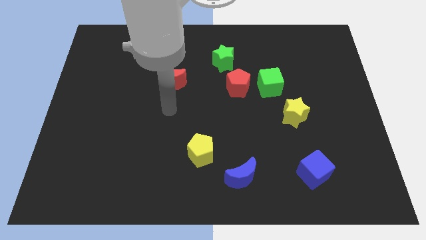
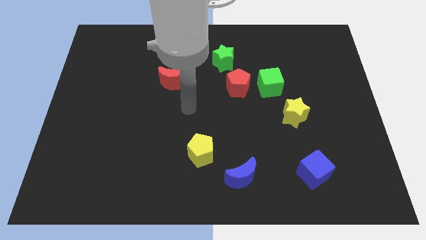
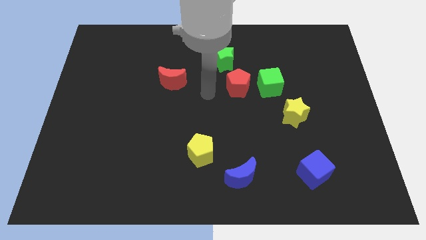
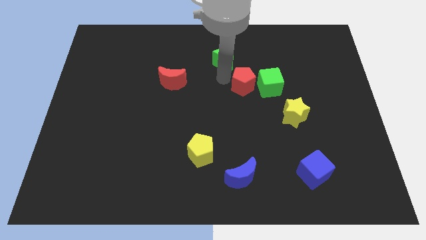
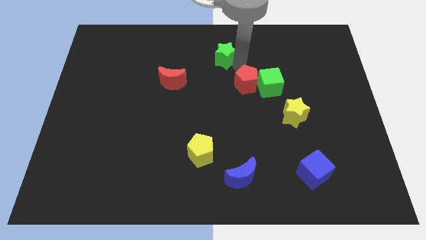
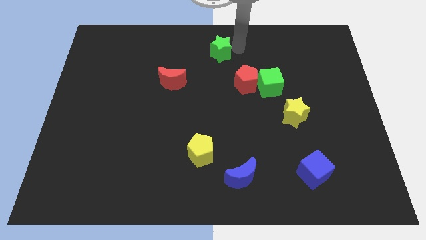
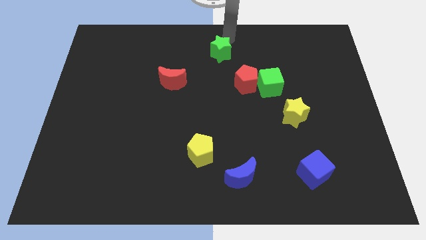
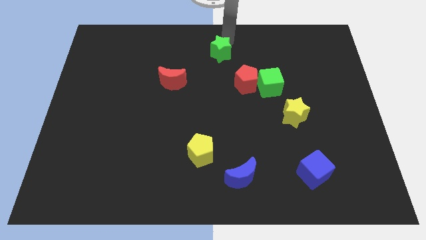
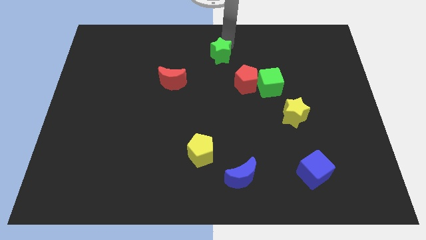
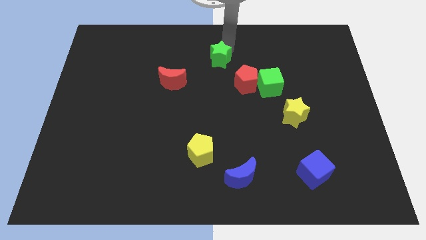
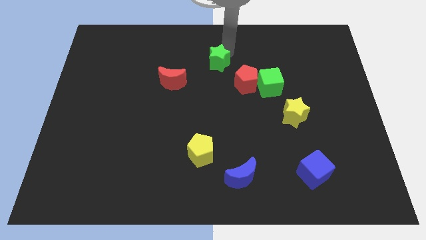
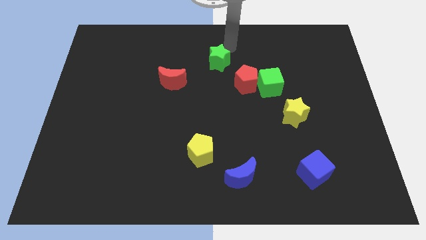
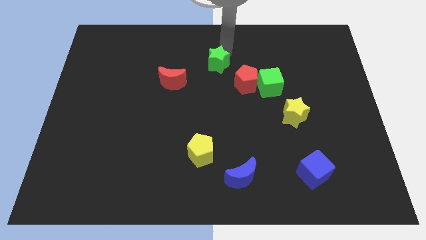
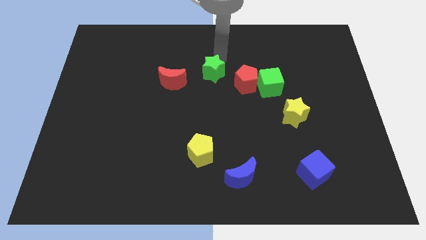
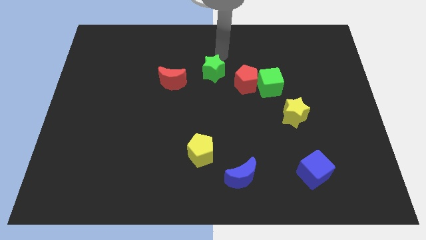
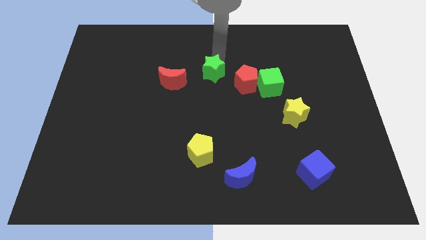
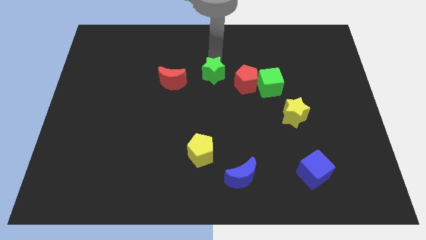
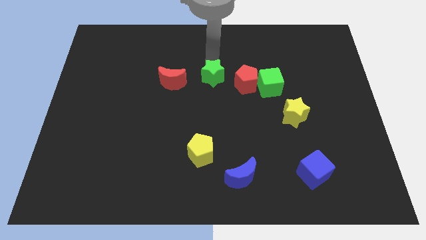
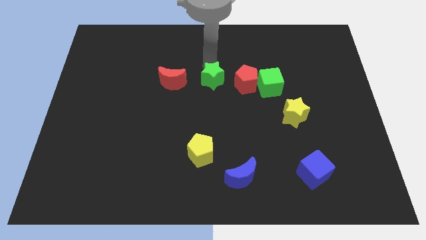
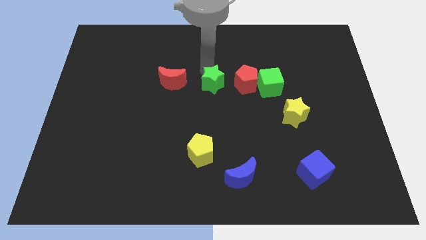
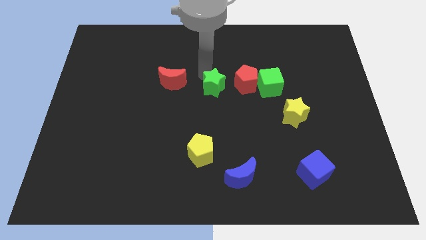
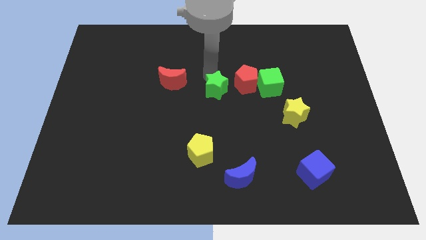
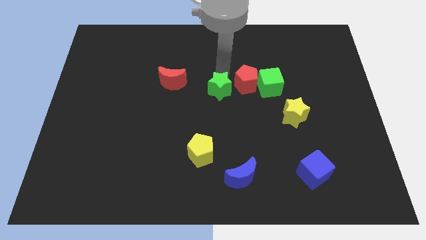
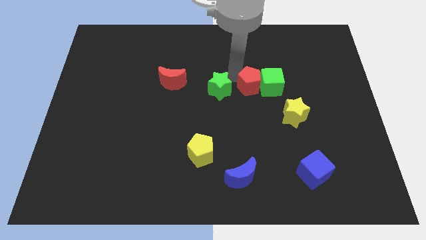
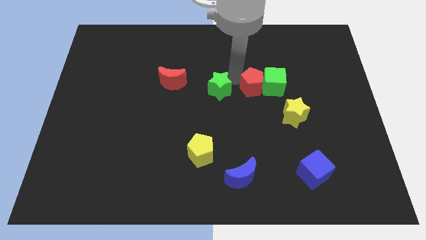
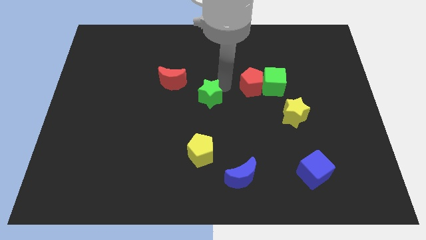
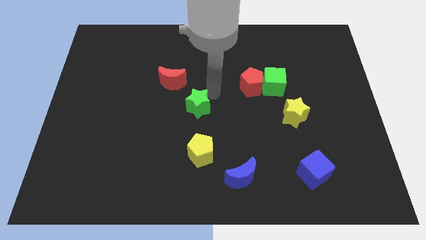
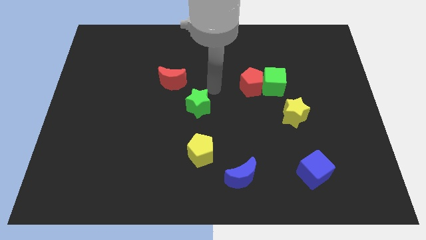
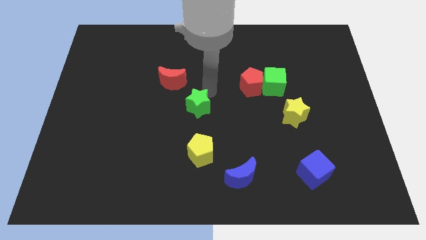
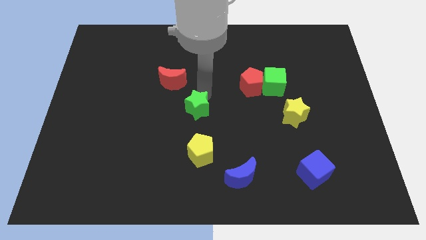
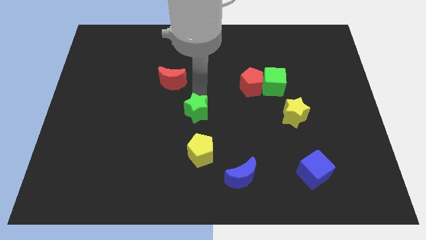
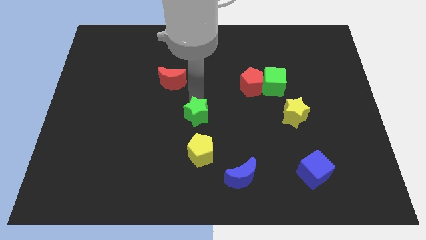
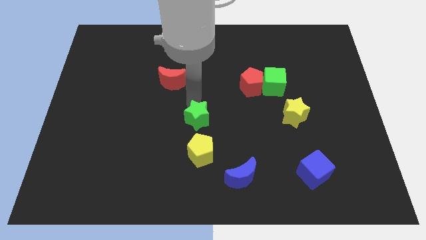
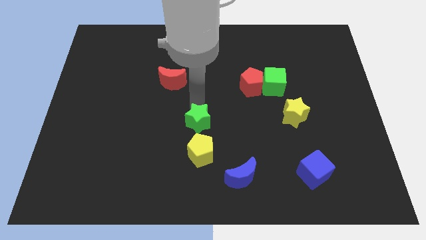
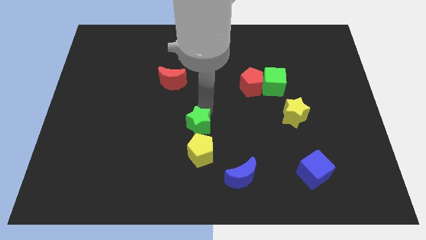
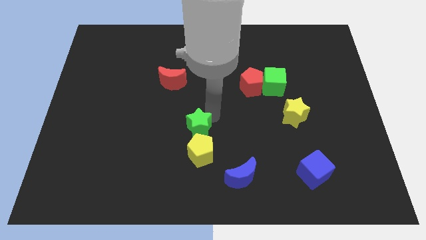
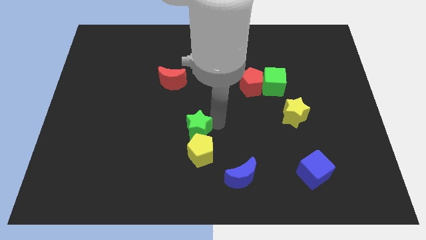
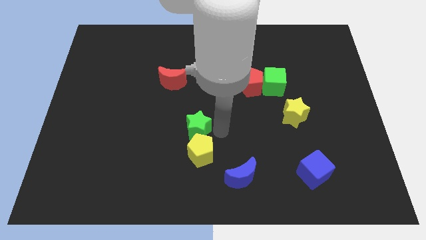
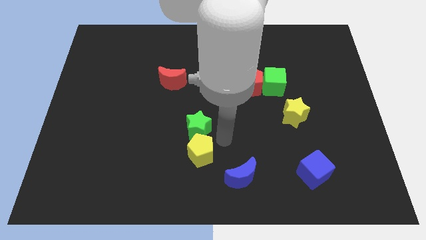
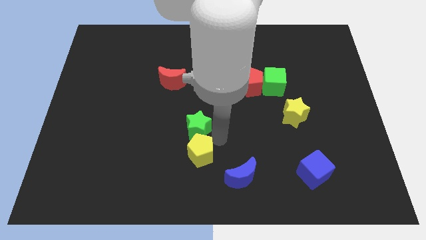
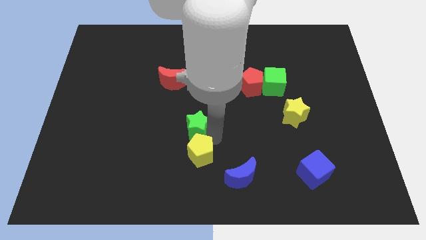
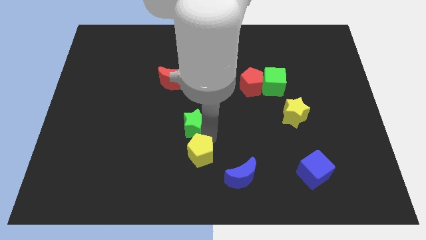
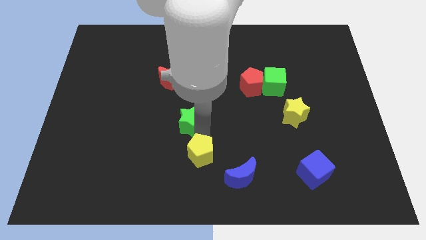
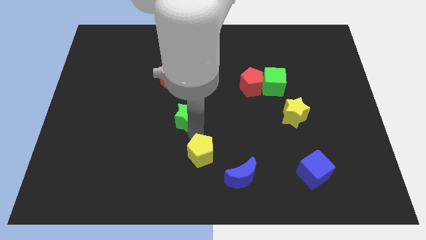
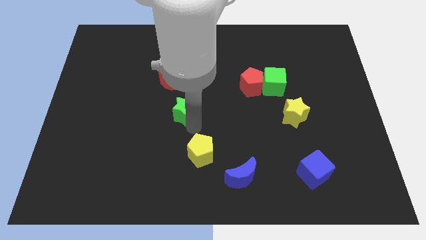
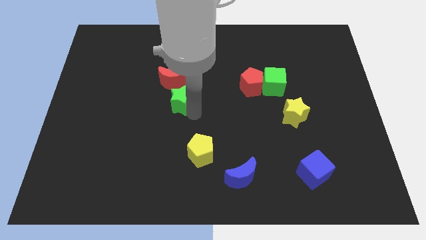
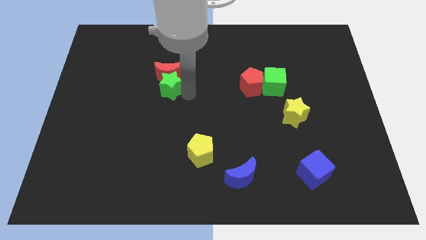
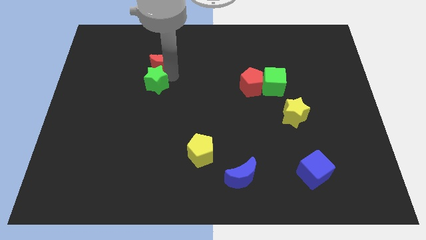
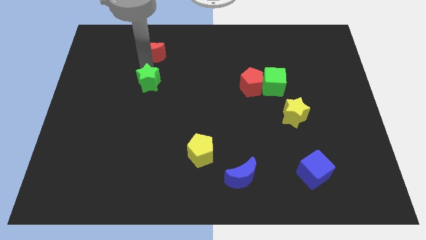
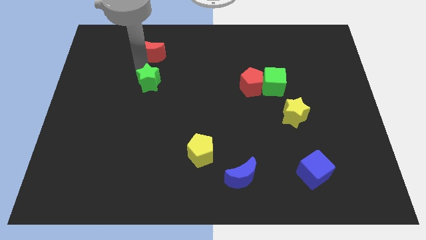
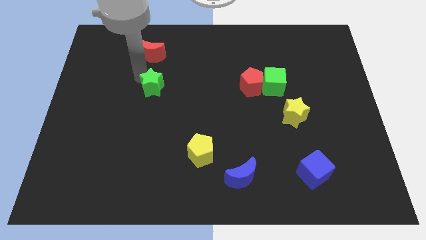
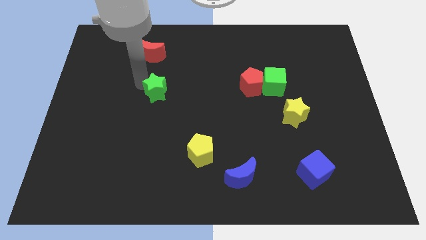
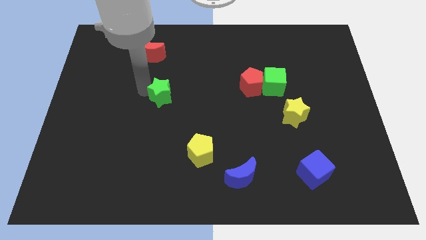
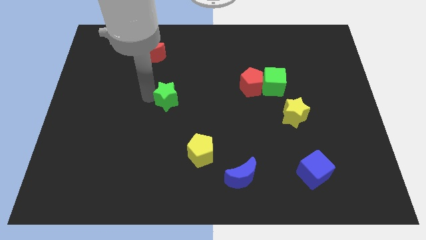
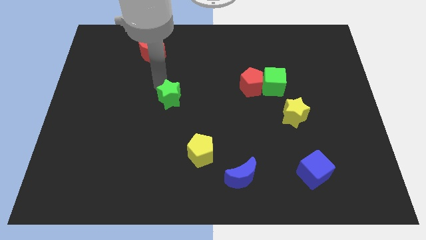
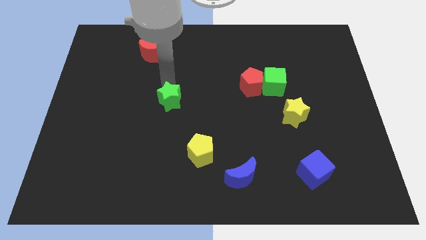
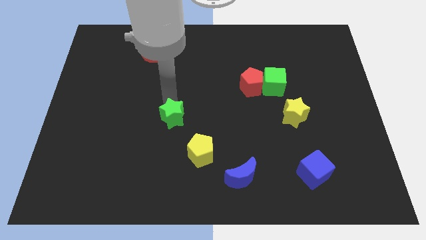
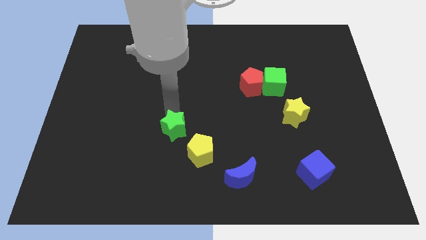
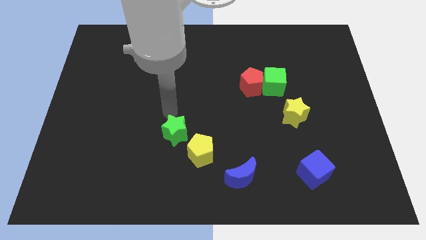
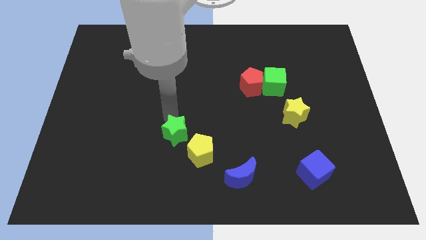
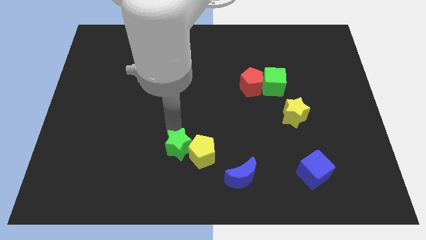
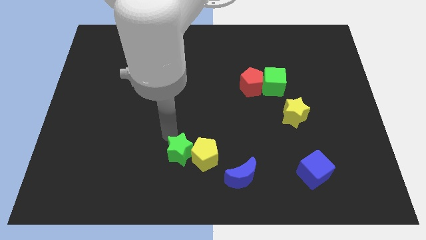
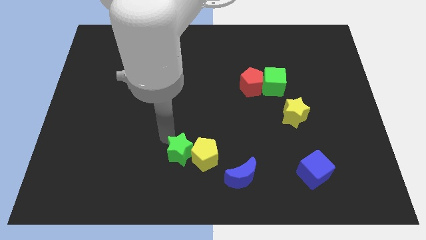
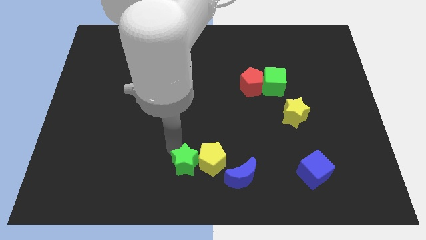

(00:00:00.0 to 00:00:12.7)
put the green star to the bottom side
